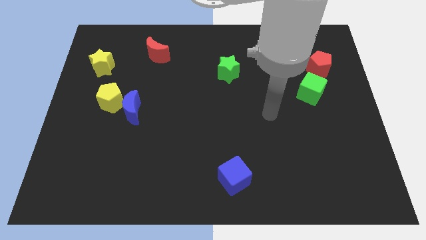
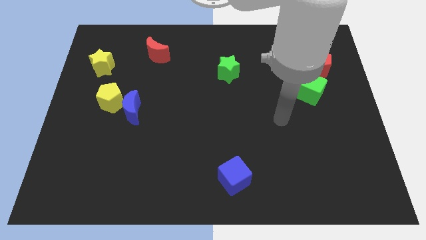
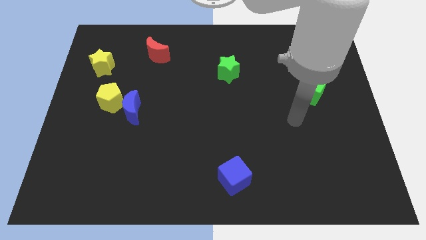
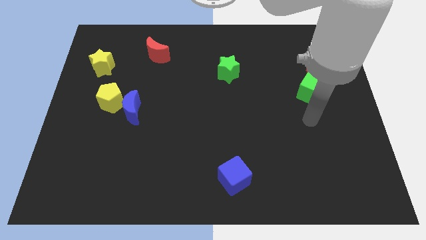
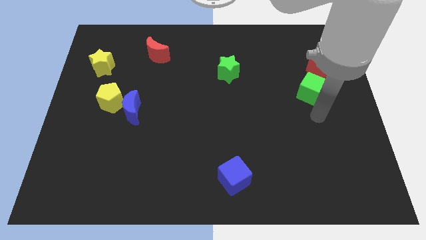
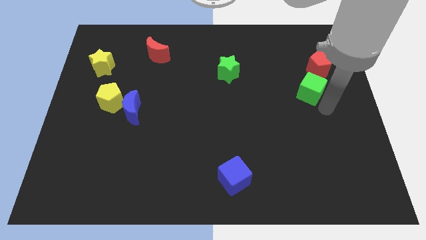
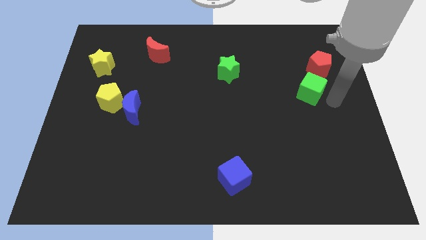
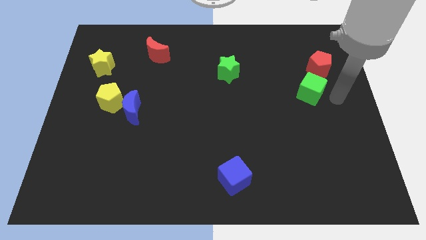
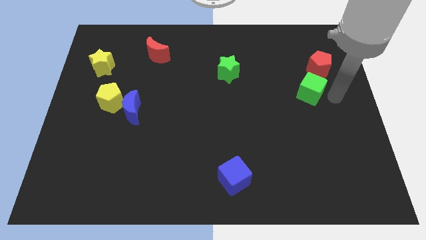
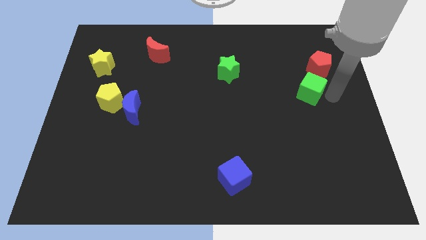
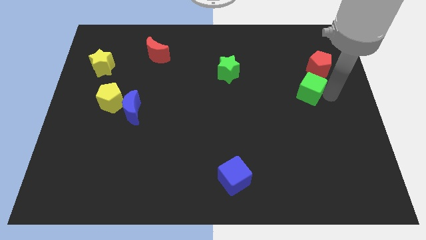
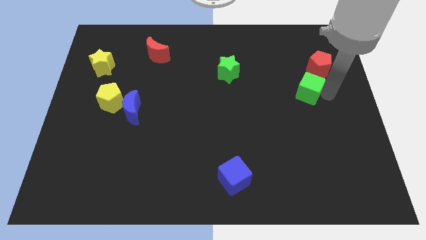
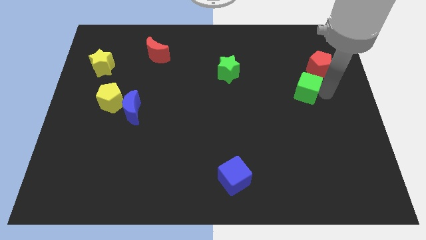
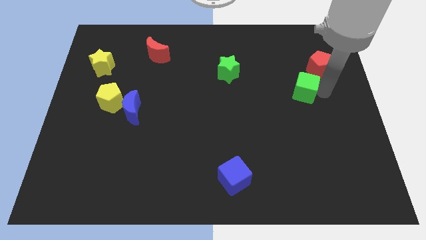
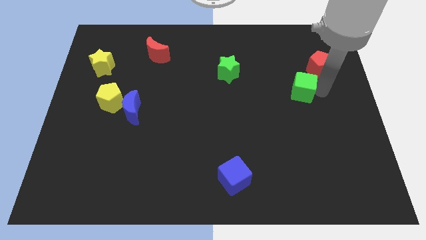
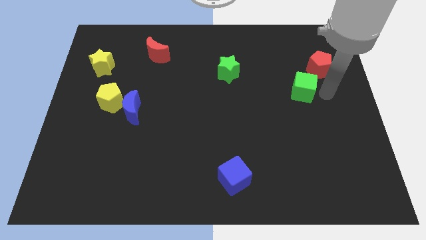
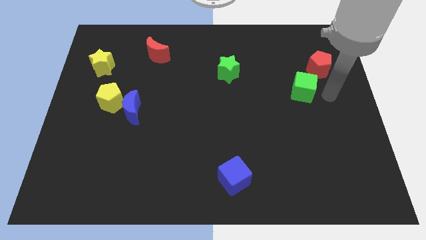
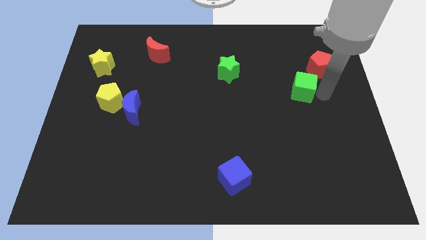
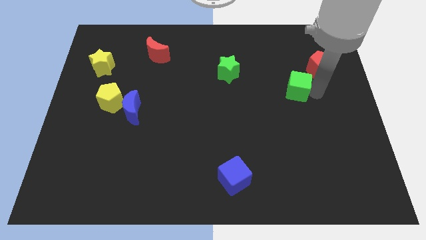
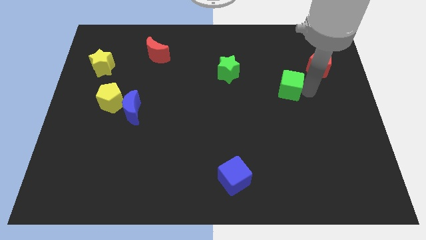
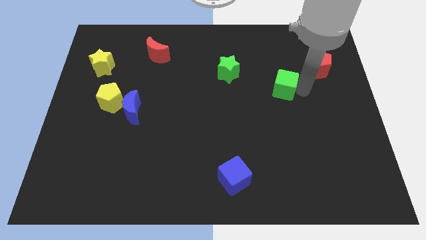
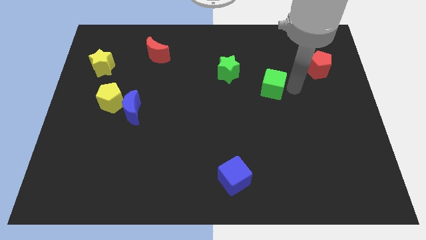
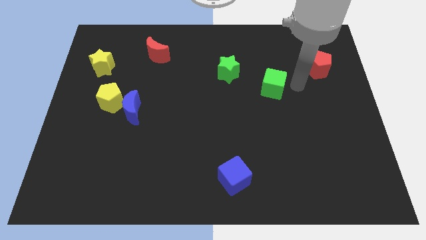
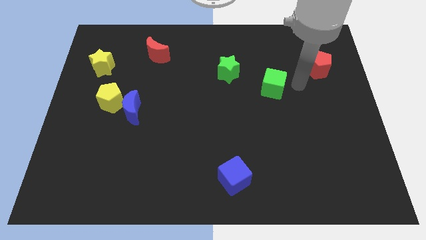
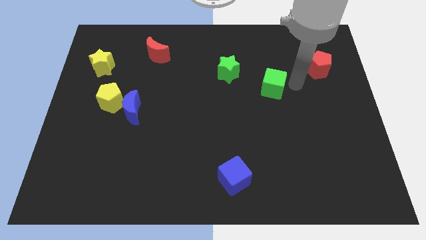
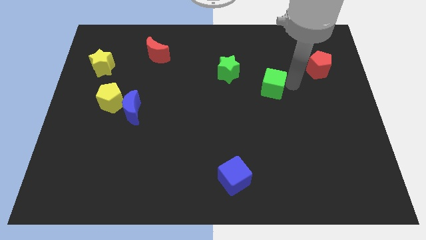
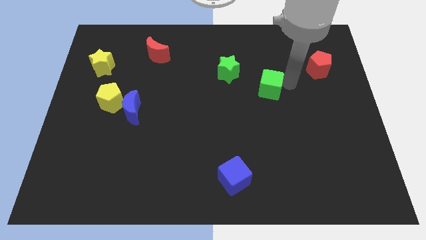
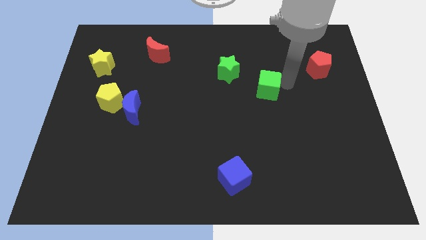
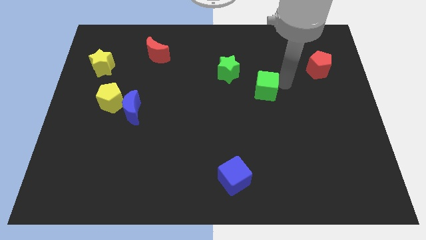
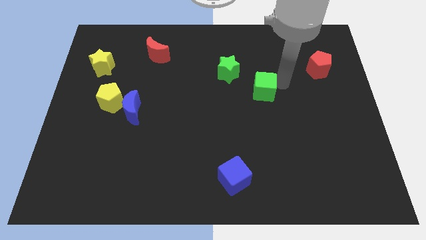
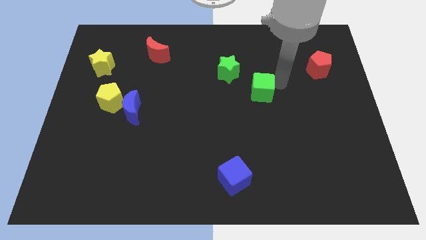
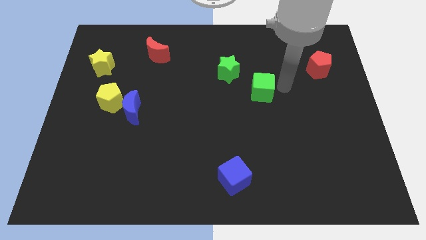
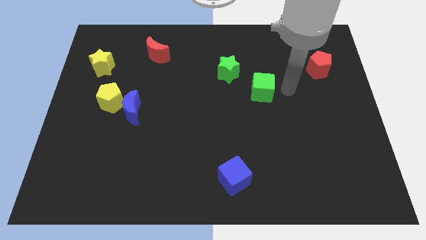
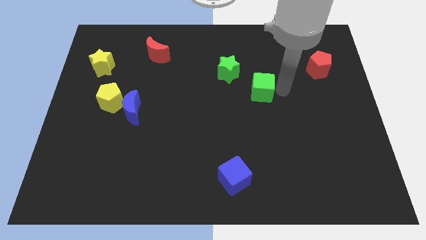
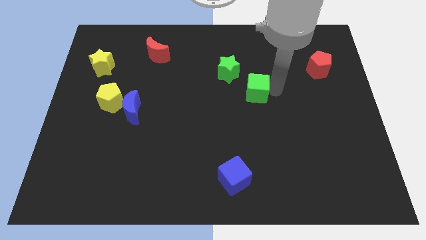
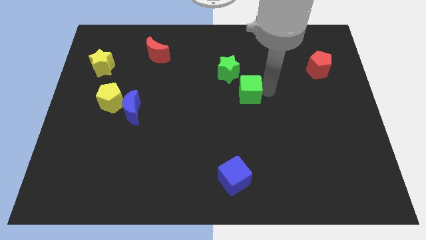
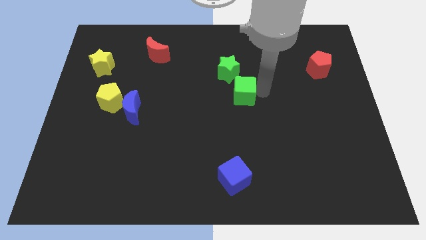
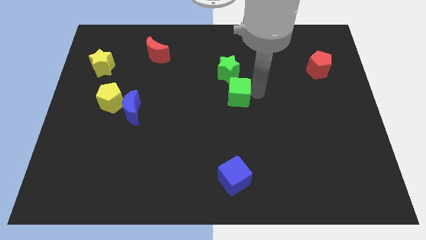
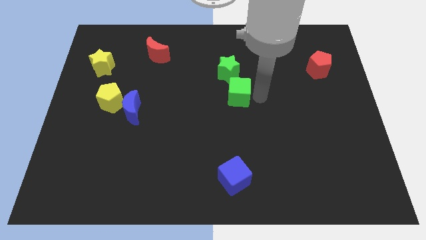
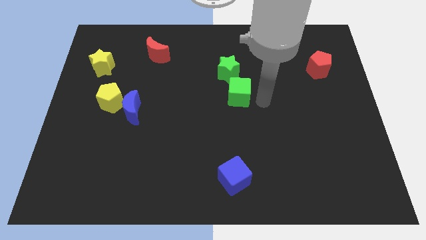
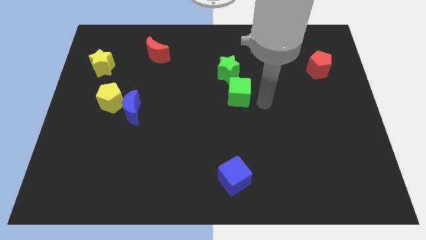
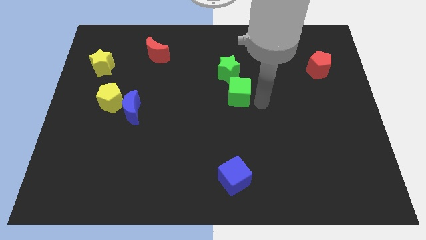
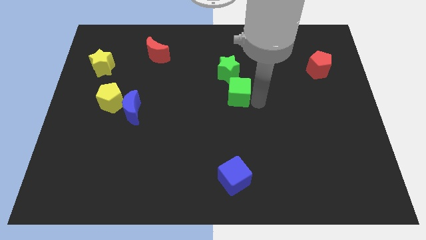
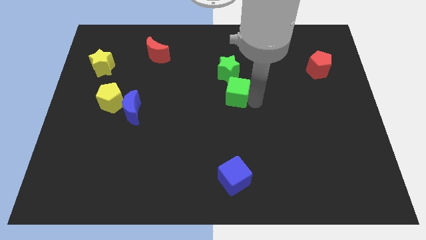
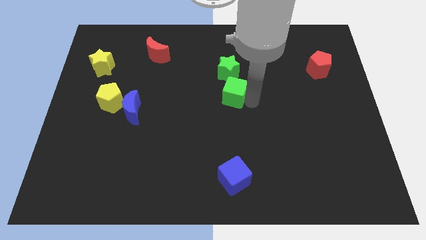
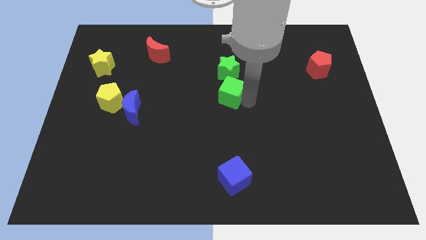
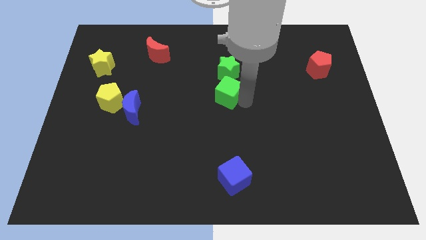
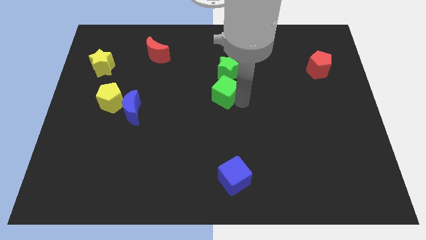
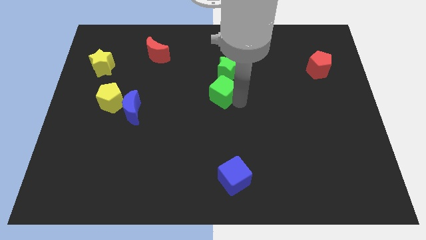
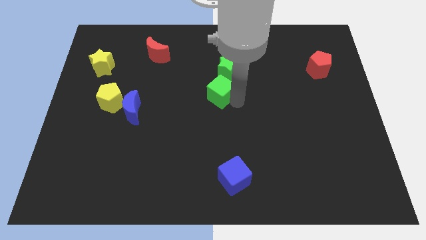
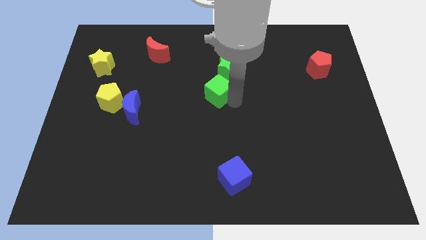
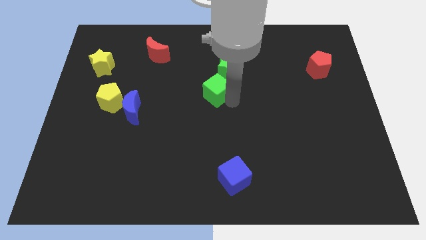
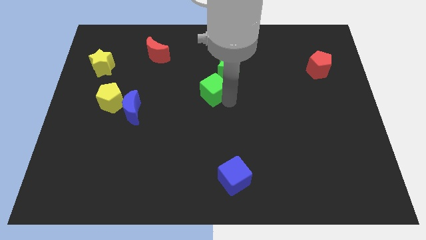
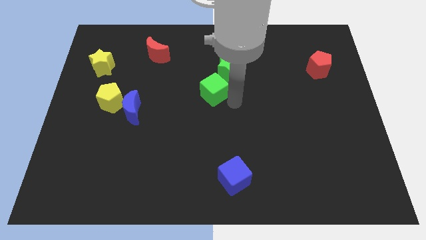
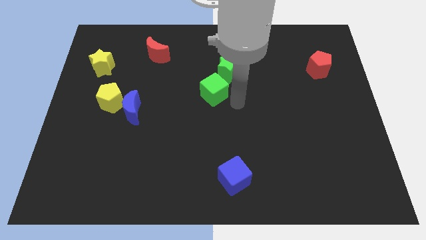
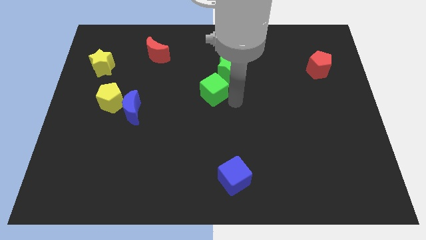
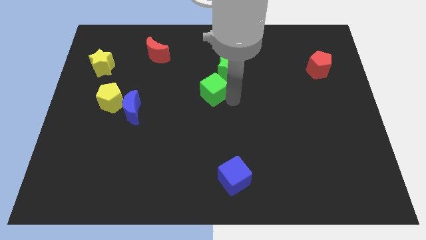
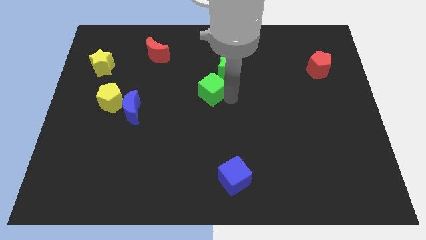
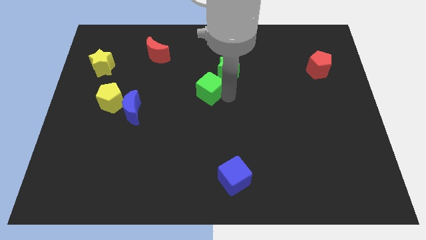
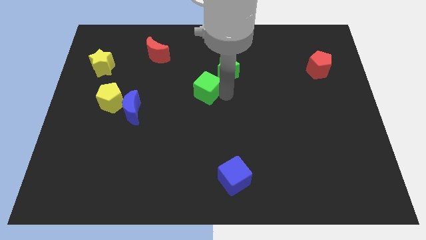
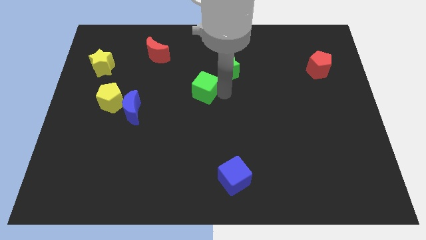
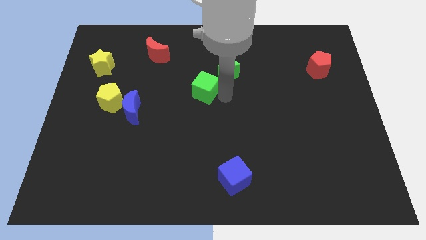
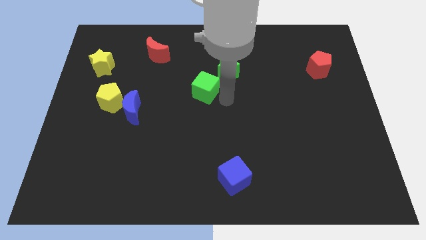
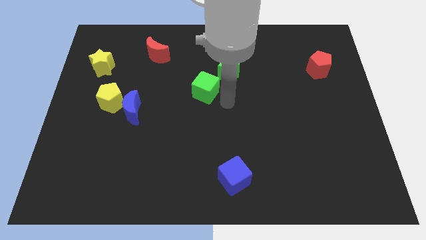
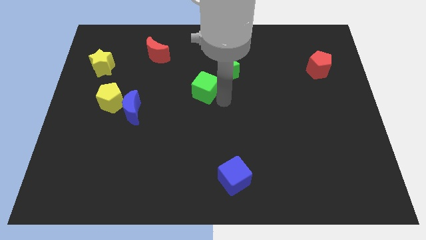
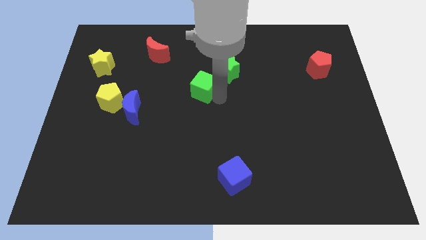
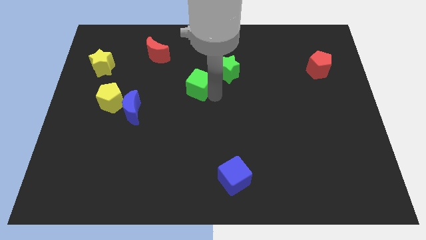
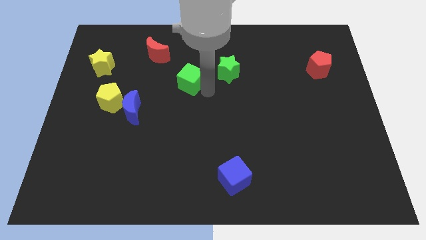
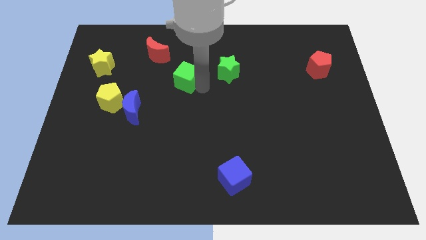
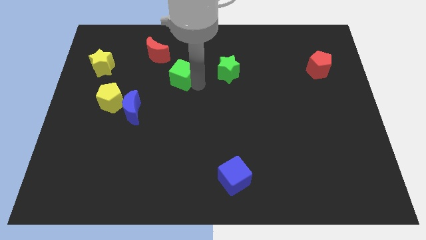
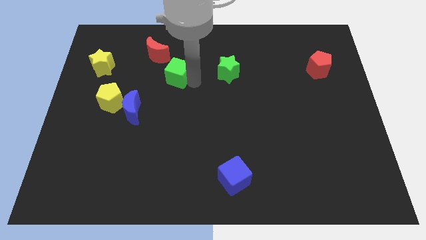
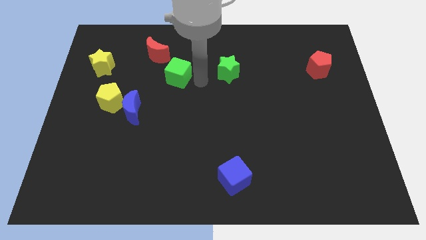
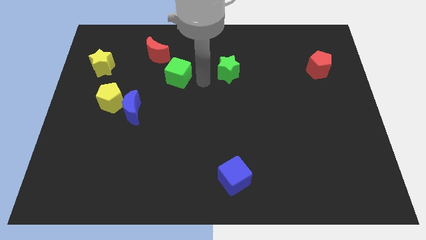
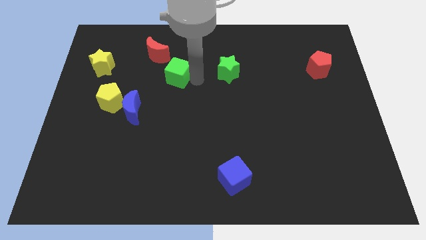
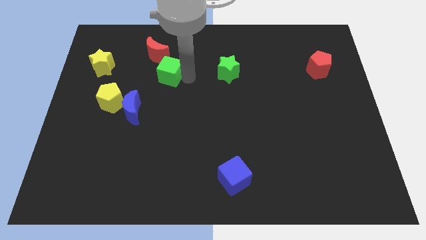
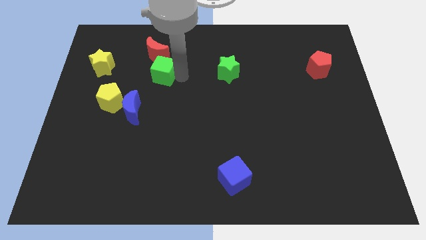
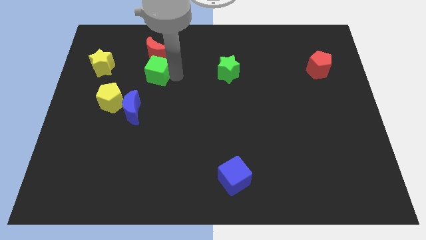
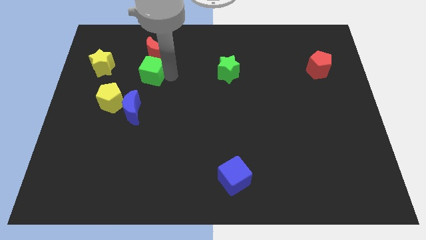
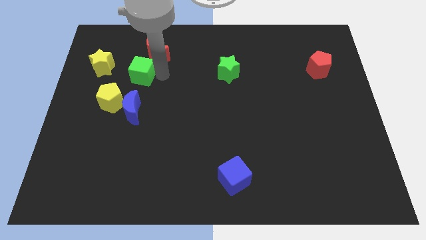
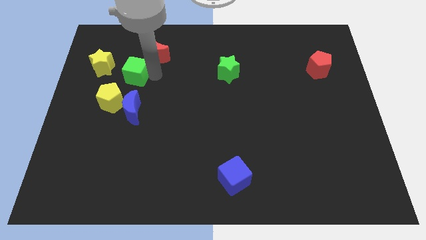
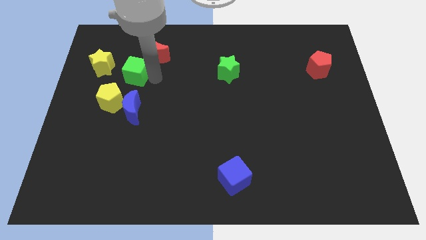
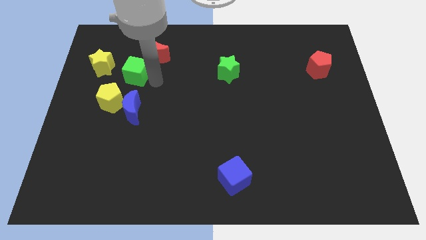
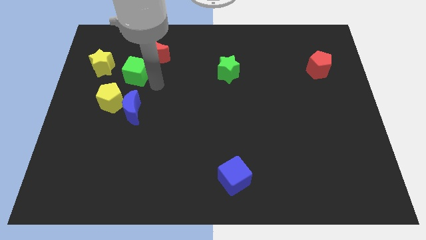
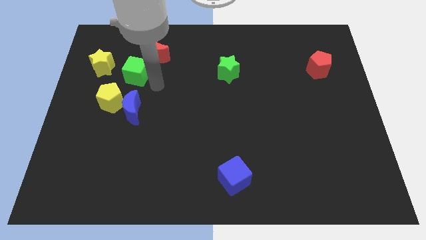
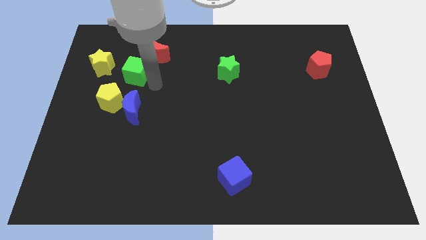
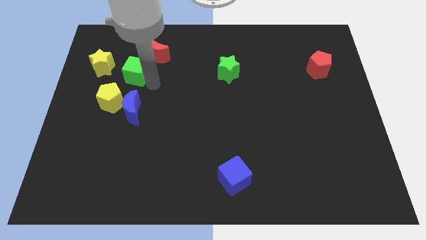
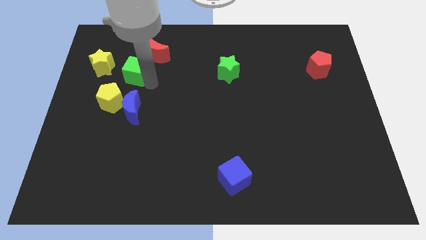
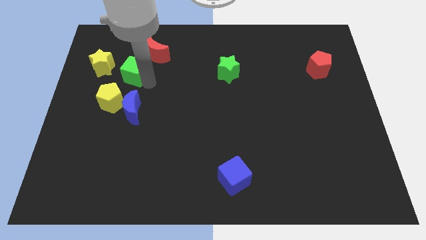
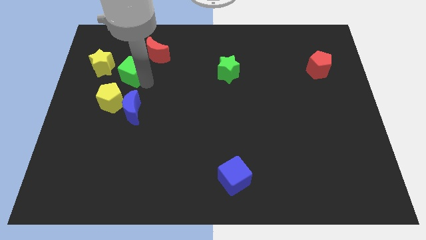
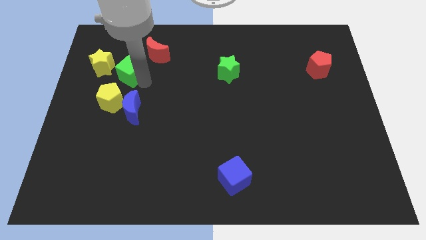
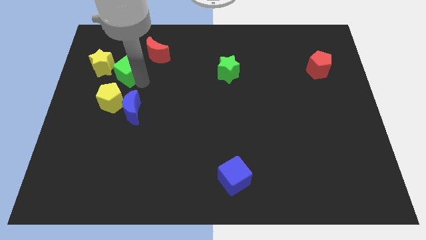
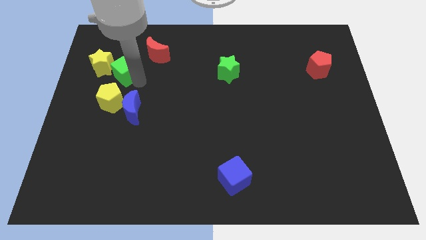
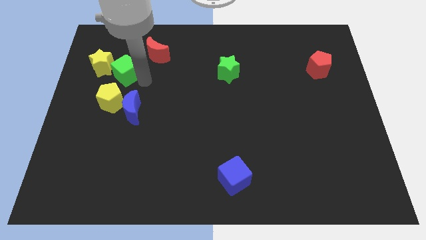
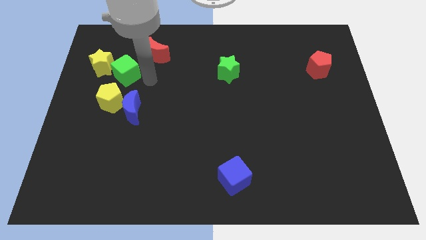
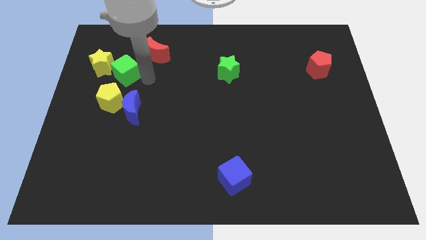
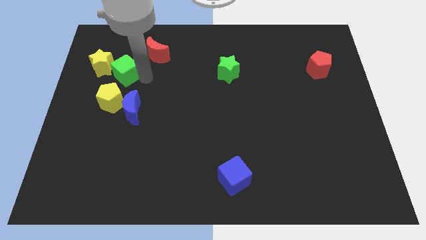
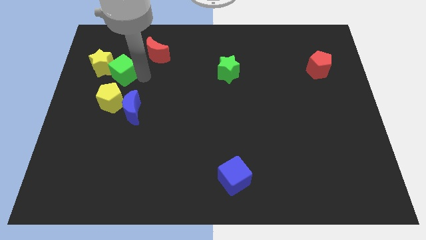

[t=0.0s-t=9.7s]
push the green cube to the yellow star
